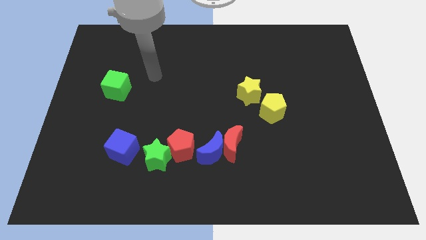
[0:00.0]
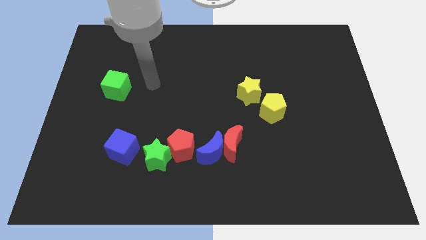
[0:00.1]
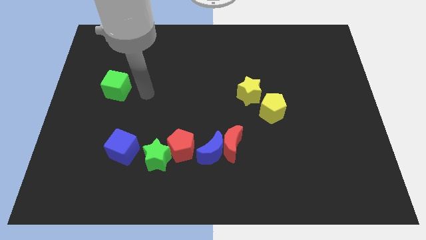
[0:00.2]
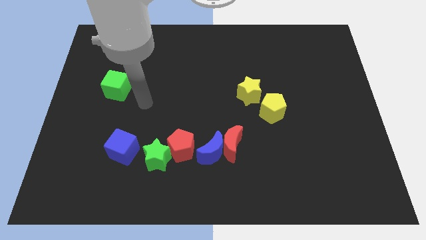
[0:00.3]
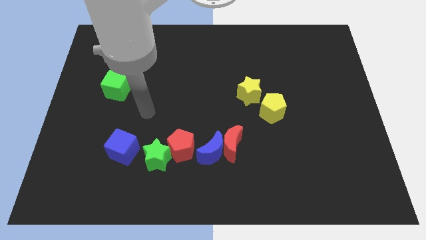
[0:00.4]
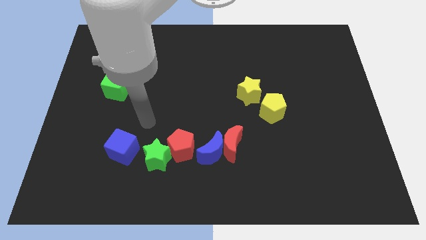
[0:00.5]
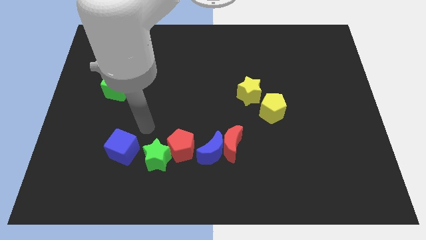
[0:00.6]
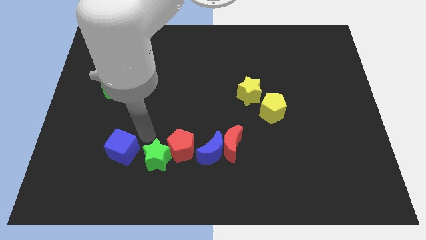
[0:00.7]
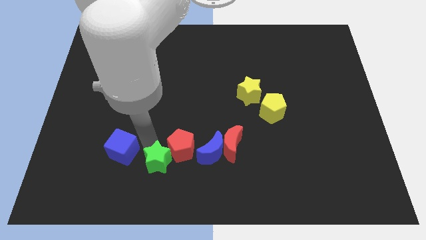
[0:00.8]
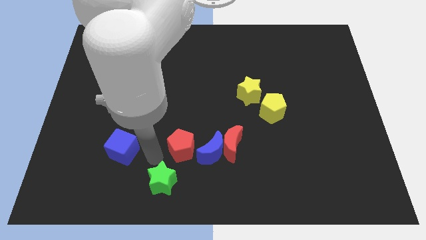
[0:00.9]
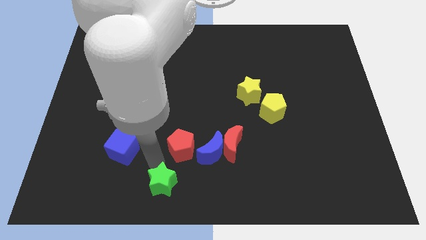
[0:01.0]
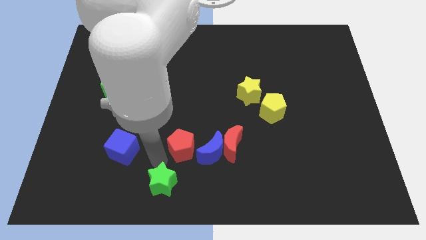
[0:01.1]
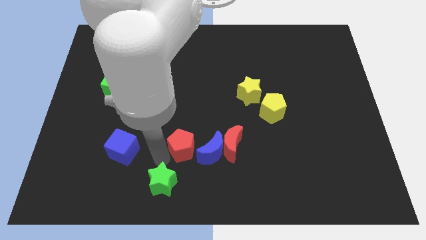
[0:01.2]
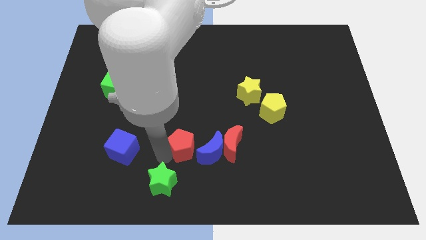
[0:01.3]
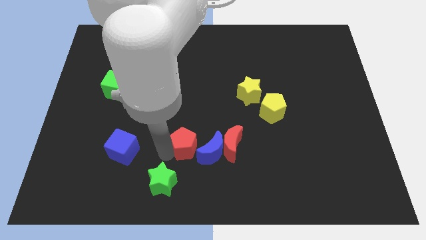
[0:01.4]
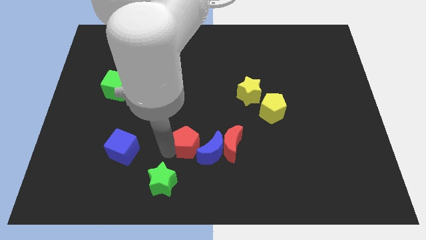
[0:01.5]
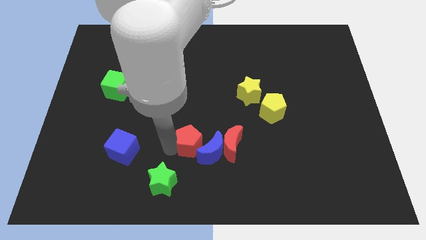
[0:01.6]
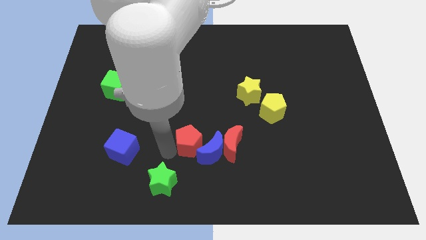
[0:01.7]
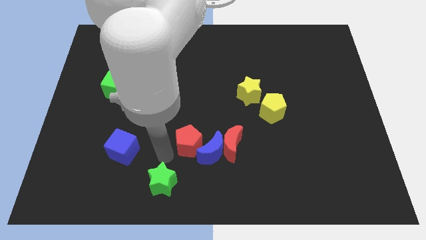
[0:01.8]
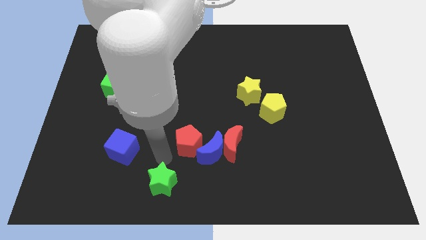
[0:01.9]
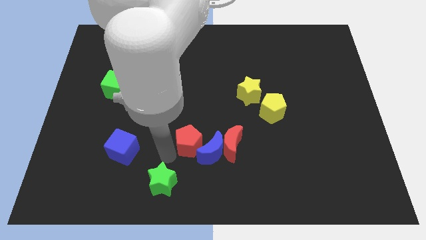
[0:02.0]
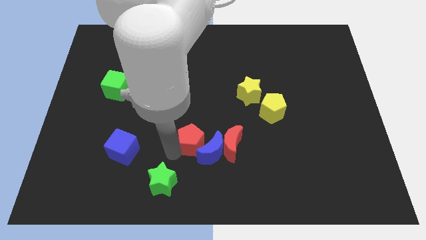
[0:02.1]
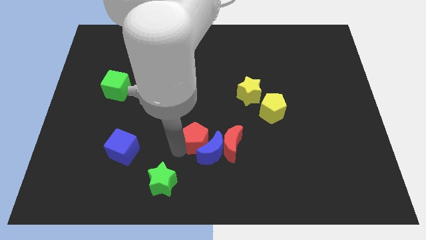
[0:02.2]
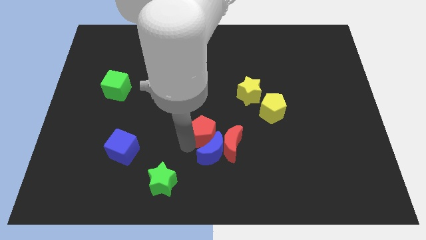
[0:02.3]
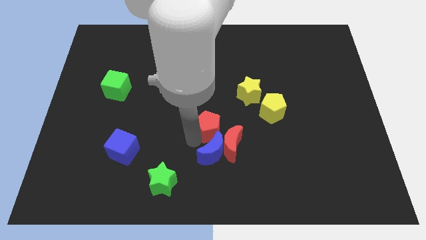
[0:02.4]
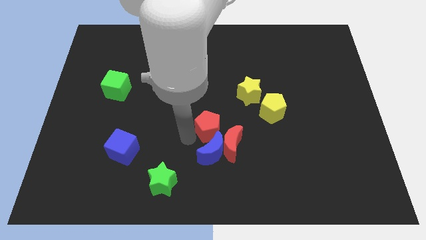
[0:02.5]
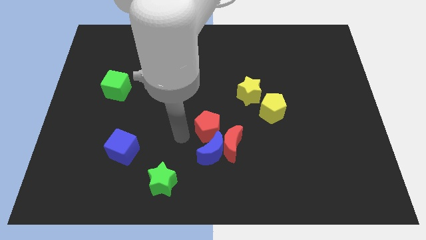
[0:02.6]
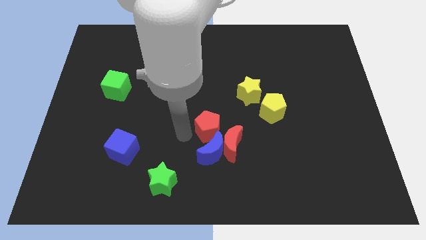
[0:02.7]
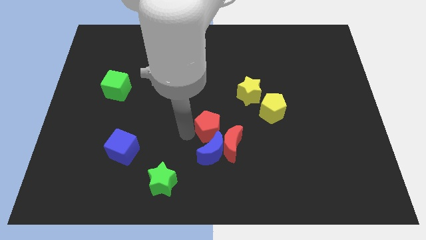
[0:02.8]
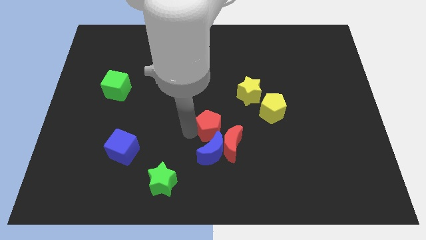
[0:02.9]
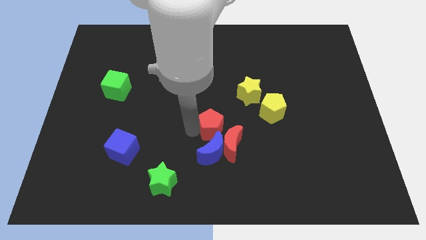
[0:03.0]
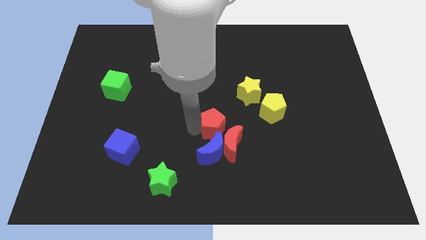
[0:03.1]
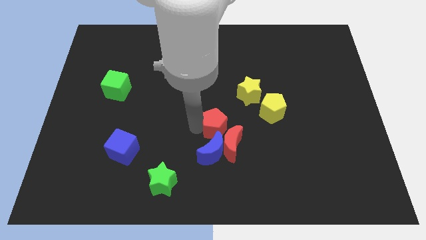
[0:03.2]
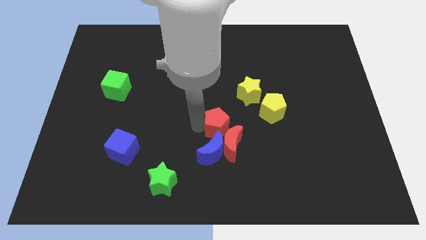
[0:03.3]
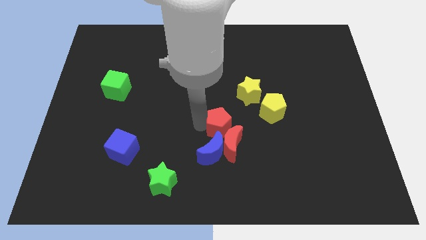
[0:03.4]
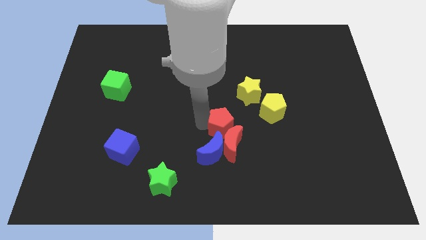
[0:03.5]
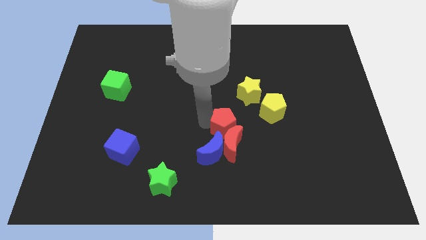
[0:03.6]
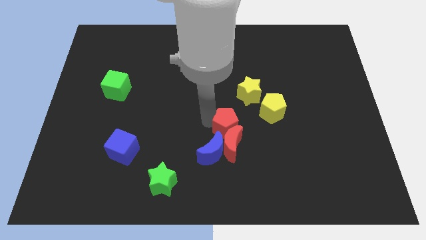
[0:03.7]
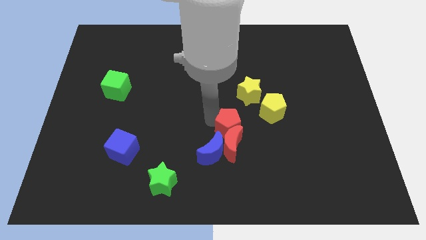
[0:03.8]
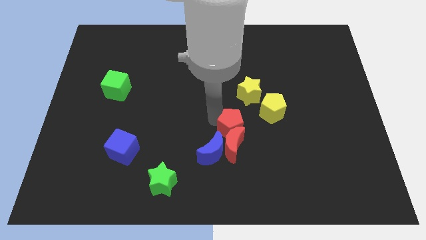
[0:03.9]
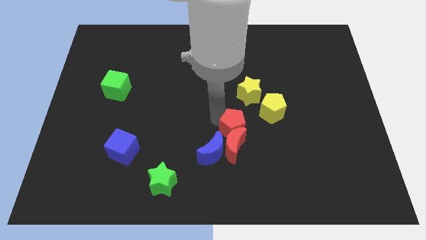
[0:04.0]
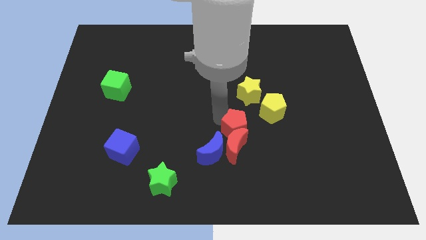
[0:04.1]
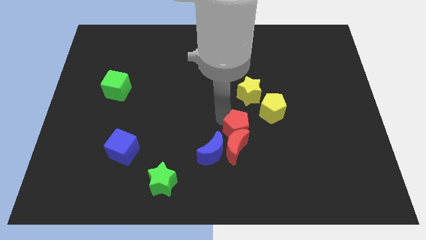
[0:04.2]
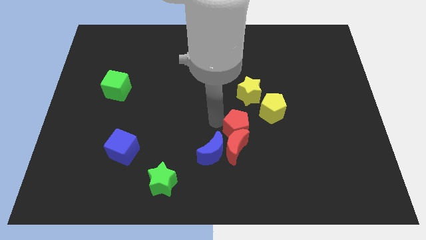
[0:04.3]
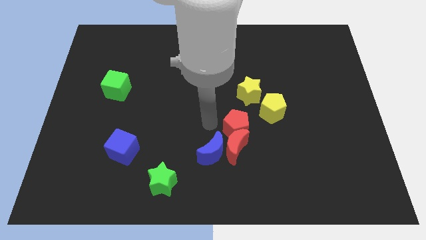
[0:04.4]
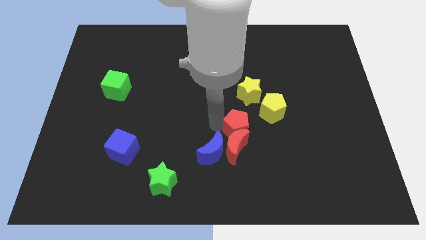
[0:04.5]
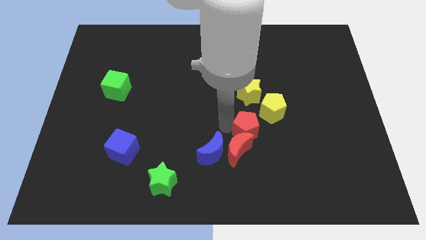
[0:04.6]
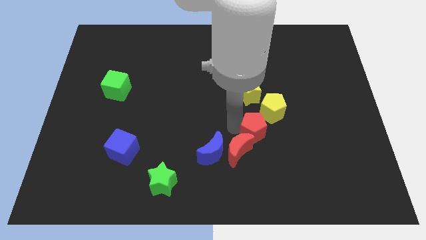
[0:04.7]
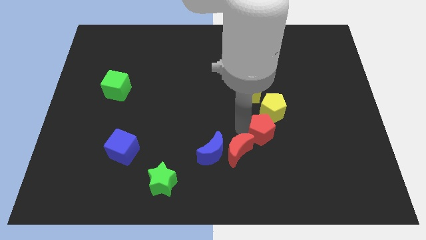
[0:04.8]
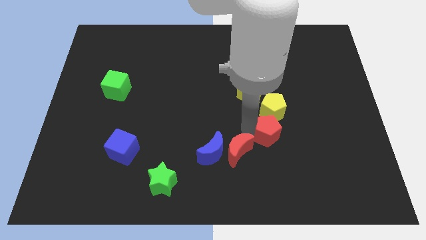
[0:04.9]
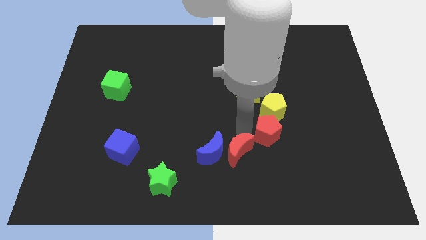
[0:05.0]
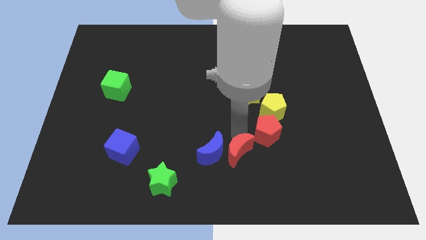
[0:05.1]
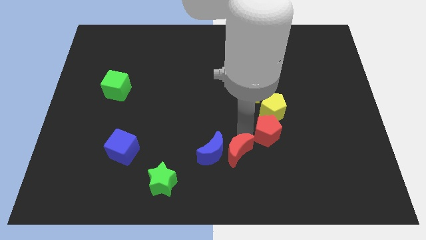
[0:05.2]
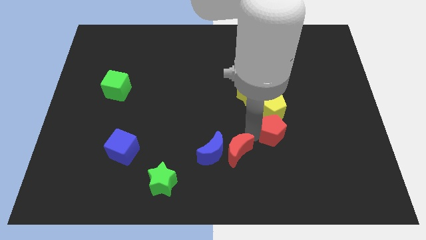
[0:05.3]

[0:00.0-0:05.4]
move the red pentagon diagonally down and to the right of the yellow pentagon

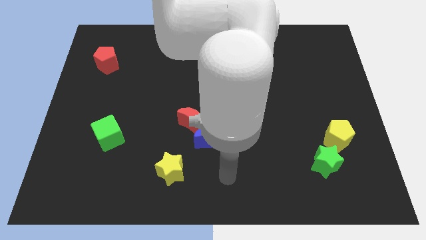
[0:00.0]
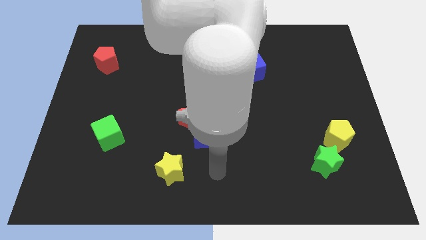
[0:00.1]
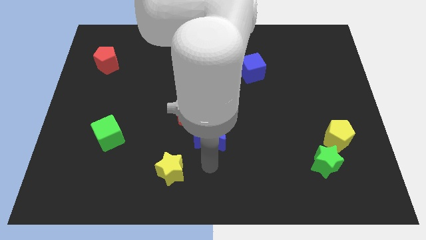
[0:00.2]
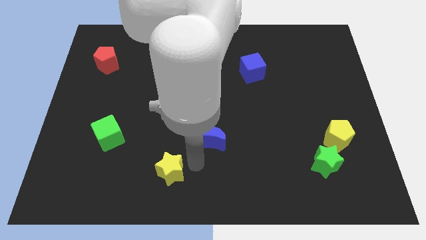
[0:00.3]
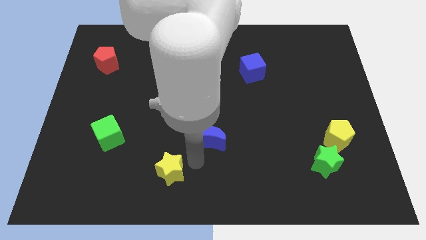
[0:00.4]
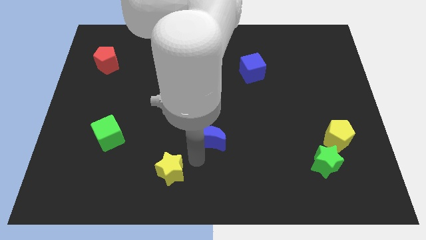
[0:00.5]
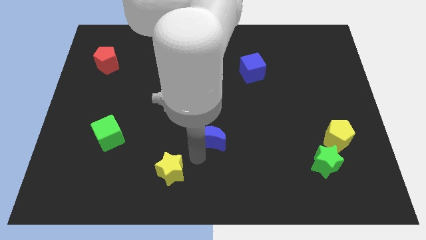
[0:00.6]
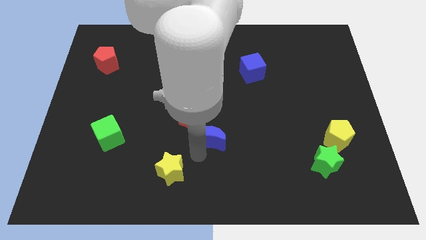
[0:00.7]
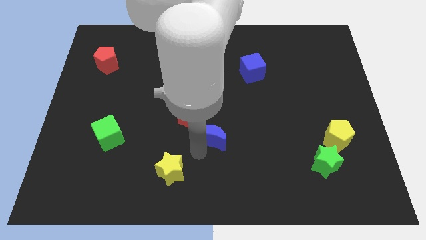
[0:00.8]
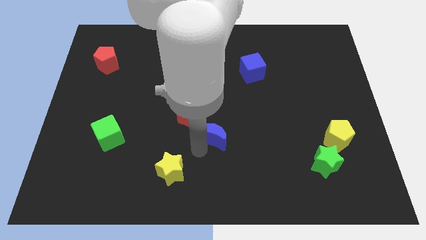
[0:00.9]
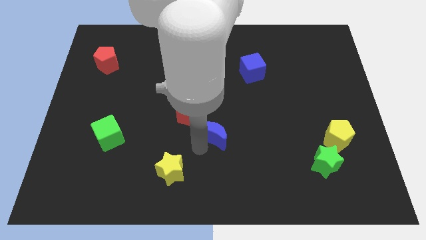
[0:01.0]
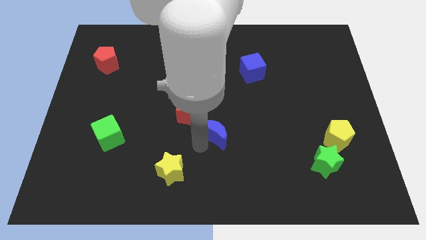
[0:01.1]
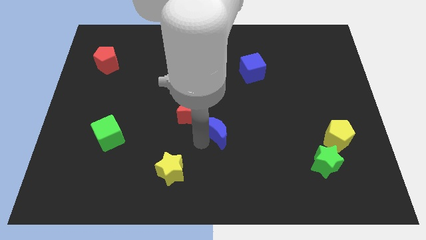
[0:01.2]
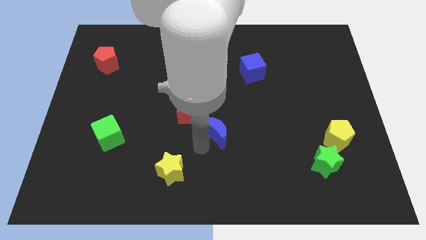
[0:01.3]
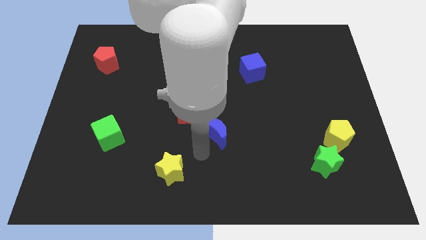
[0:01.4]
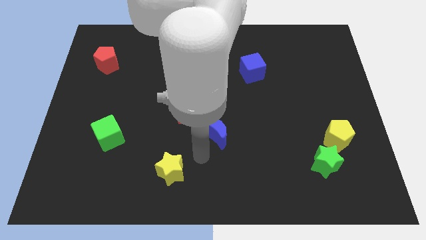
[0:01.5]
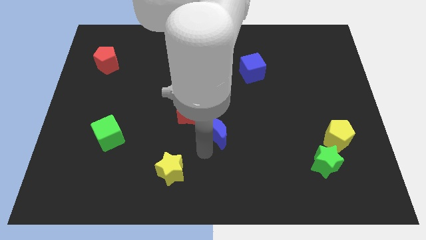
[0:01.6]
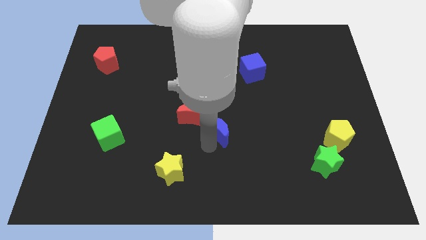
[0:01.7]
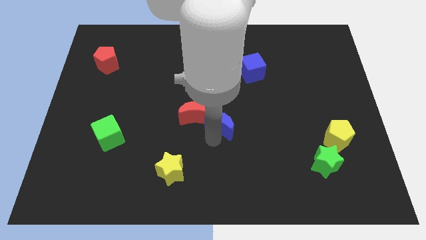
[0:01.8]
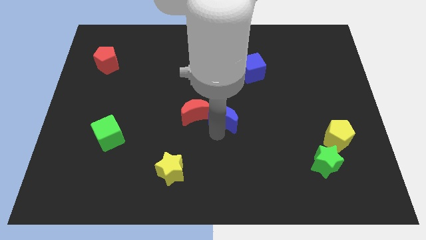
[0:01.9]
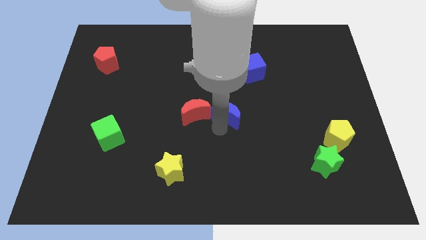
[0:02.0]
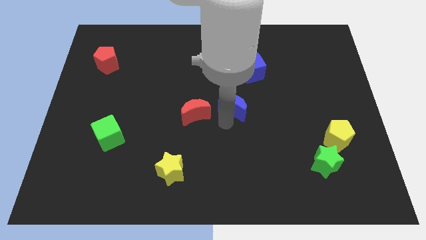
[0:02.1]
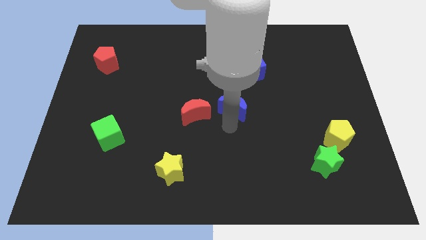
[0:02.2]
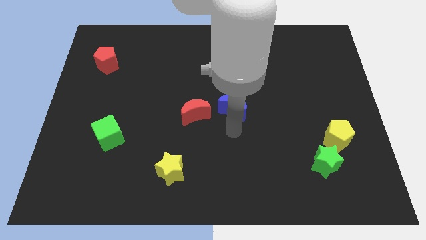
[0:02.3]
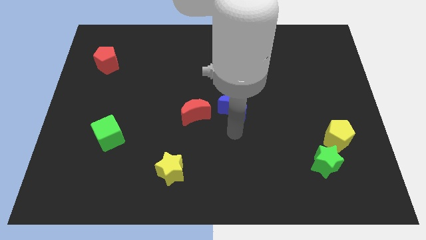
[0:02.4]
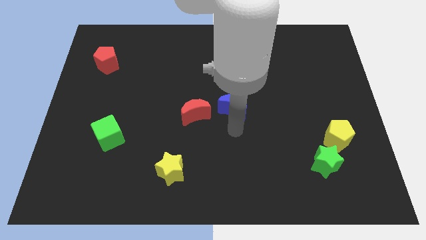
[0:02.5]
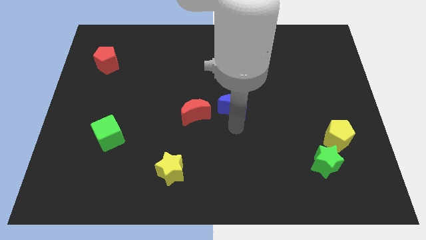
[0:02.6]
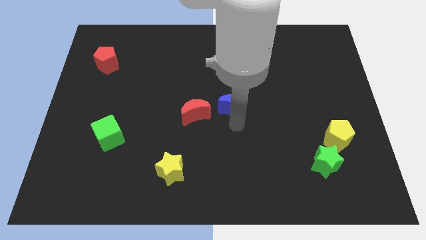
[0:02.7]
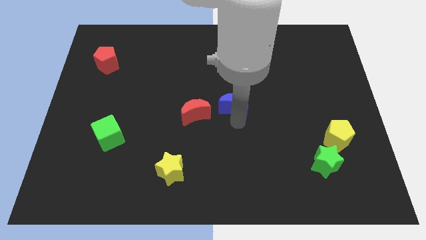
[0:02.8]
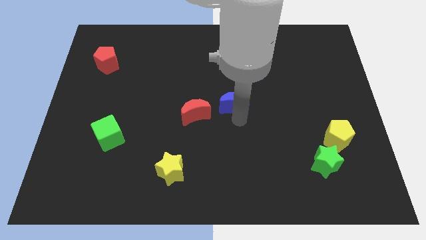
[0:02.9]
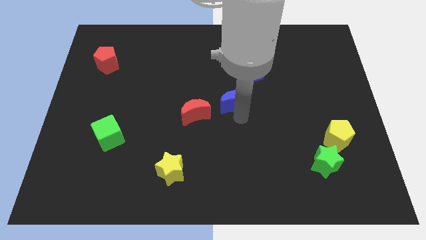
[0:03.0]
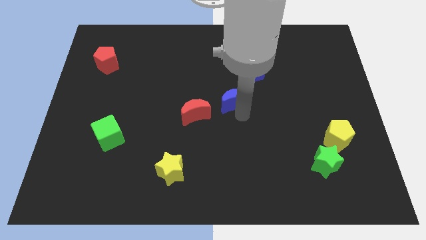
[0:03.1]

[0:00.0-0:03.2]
put the blue moon to the bottom left side of the blue cube
